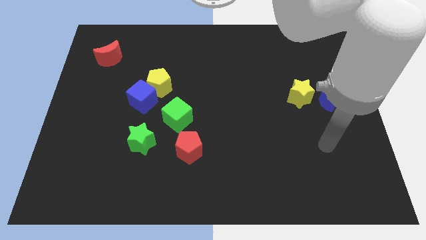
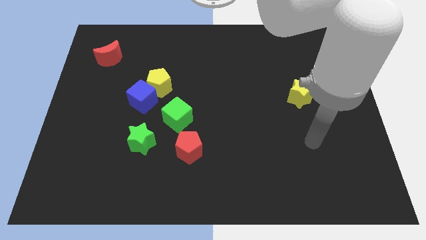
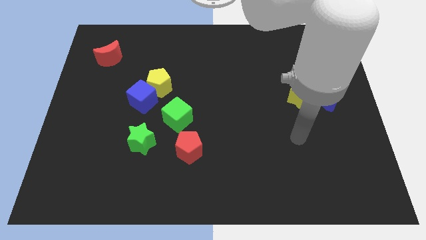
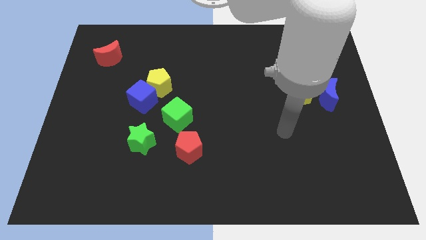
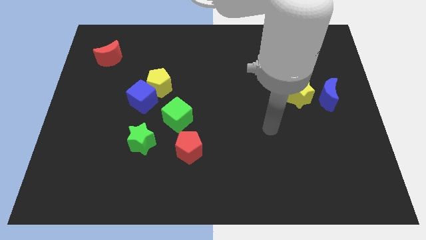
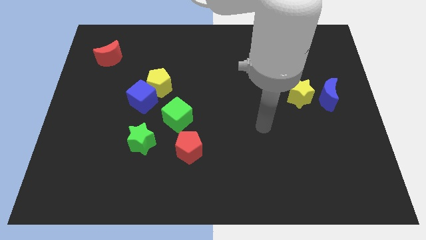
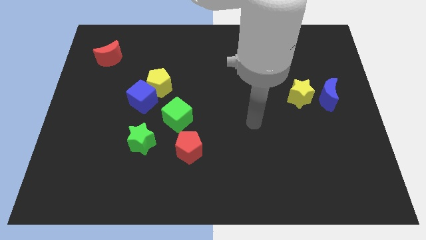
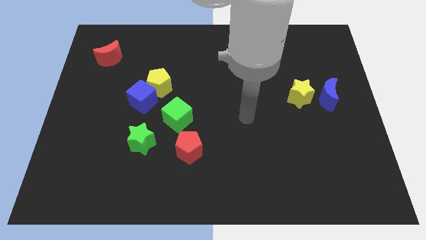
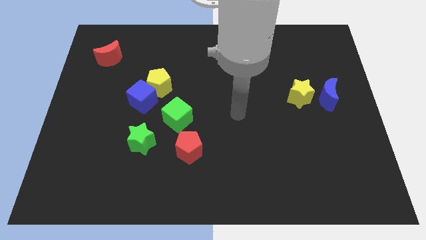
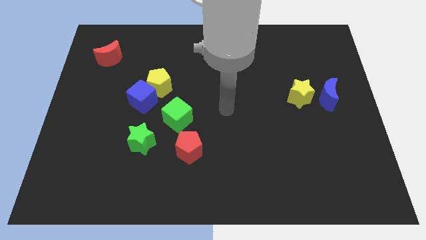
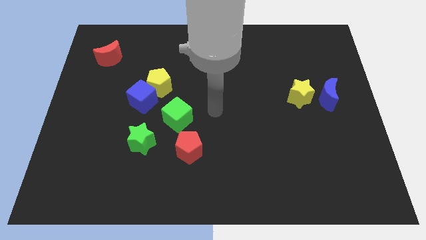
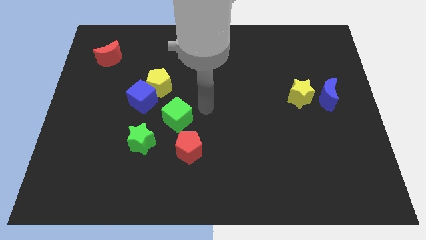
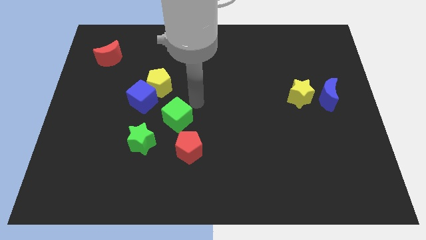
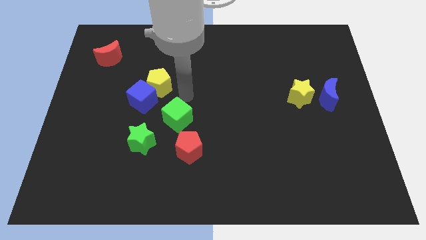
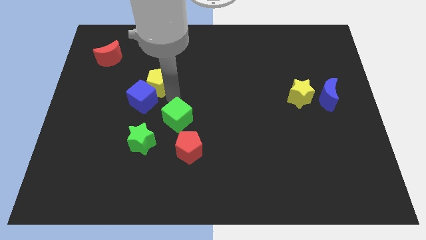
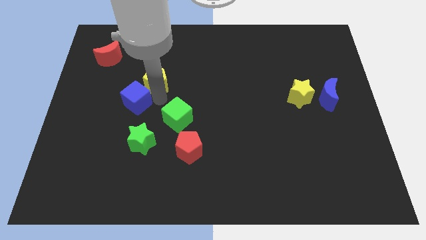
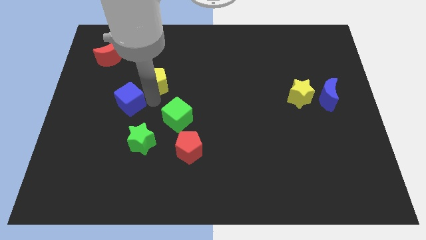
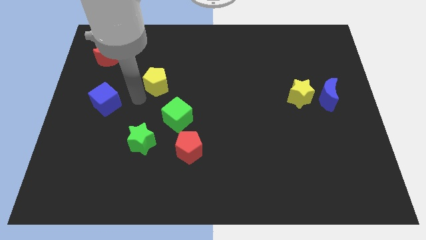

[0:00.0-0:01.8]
separate the yellow pentagon from the blue cube

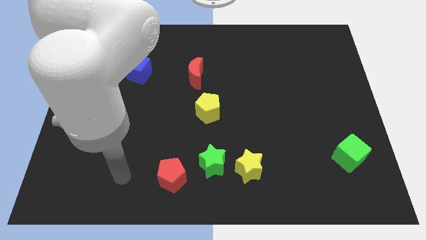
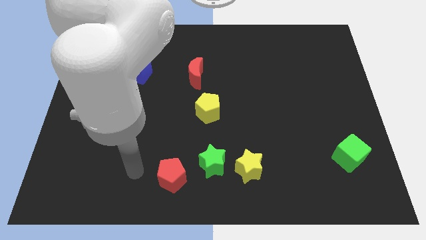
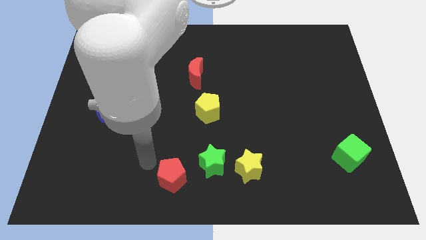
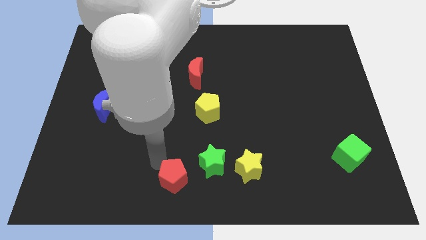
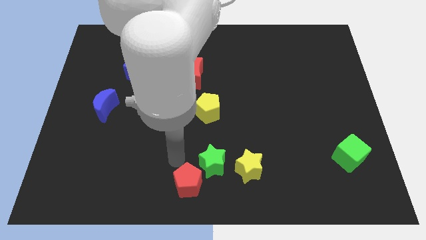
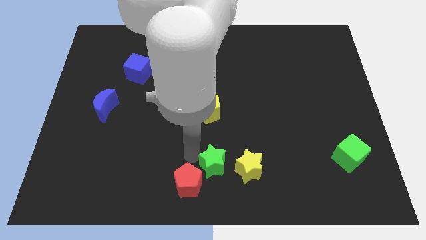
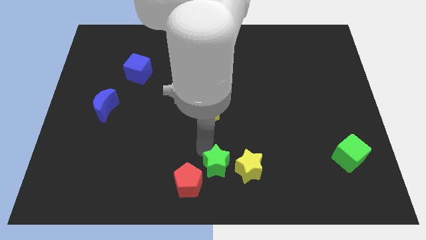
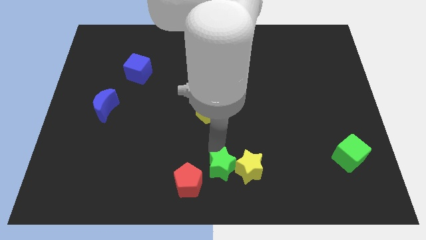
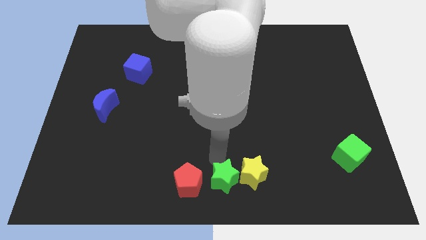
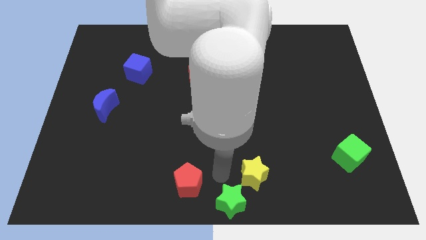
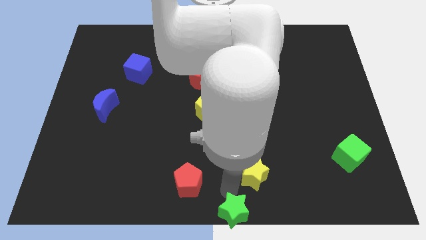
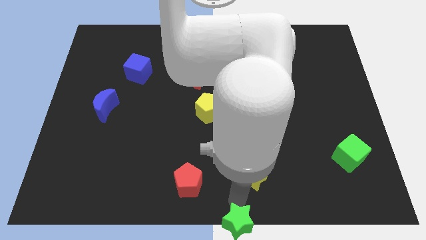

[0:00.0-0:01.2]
pull the yellow star apart from the green star

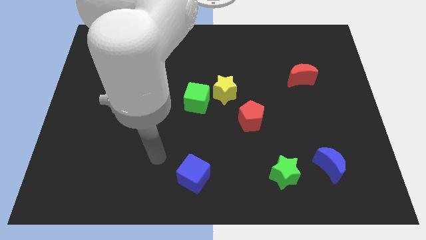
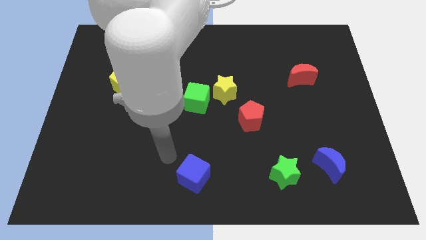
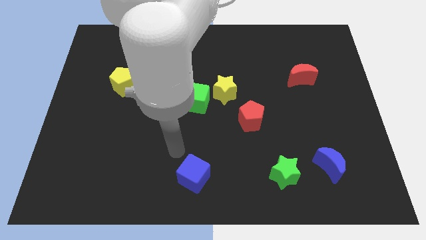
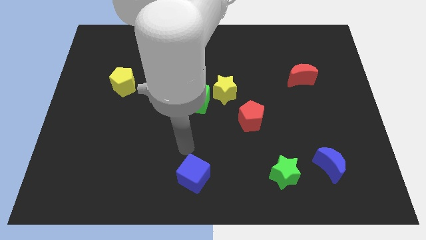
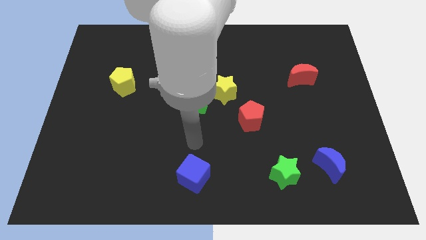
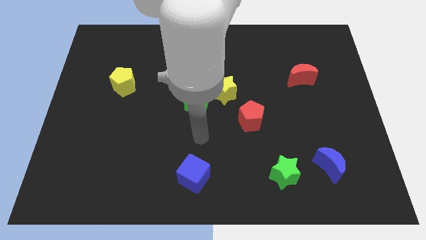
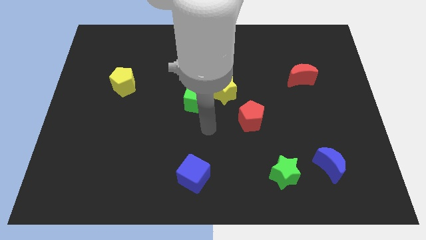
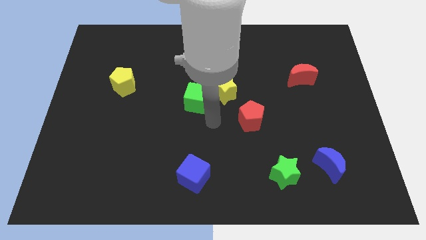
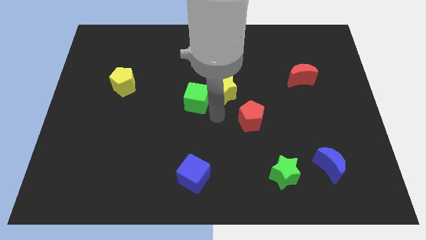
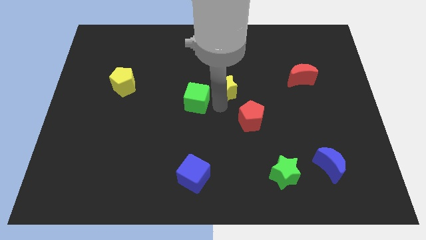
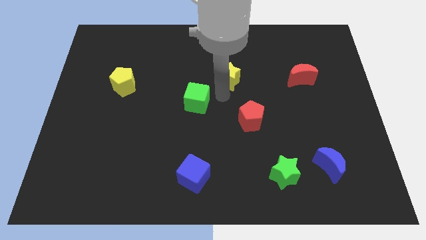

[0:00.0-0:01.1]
pull the green cube apart from the yellow star

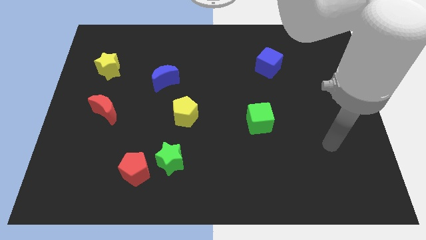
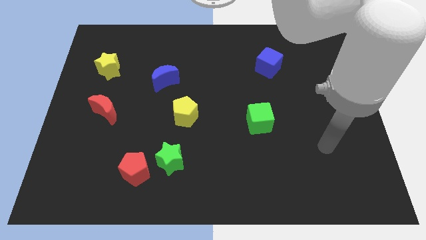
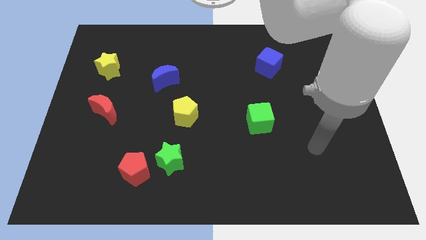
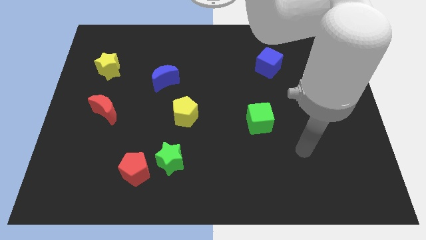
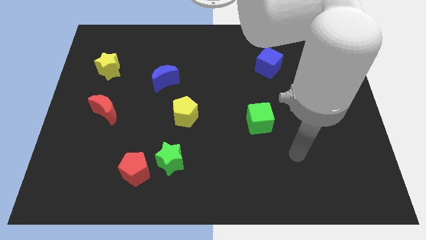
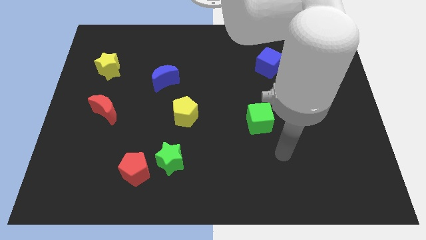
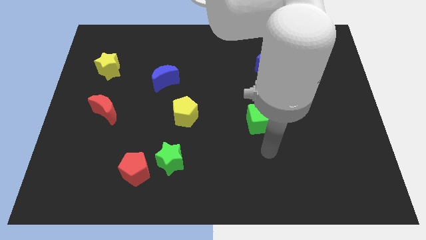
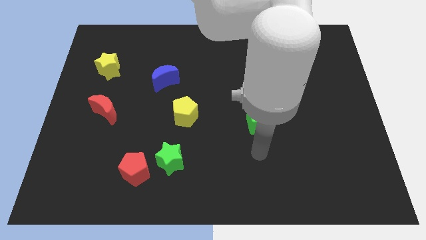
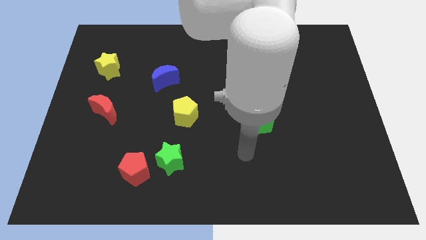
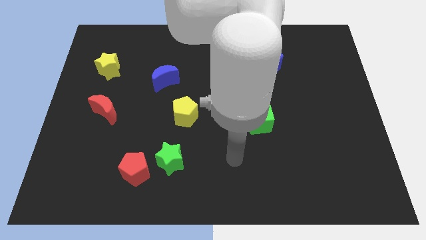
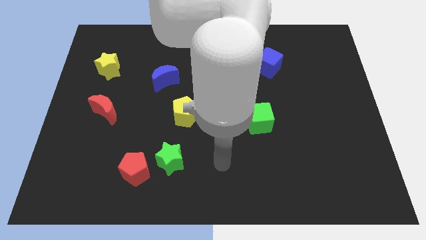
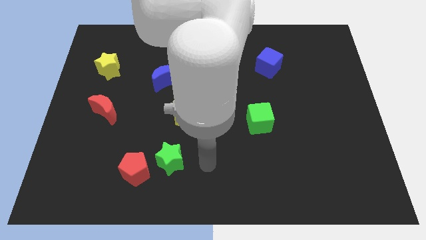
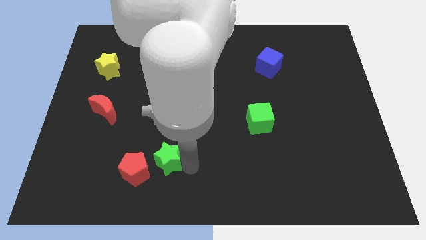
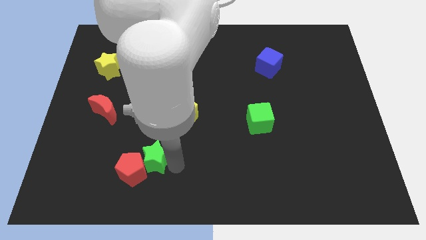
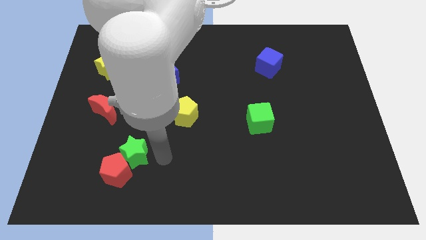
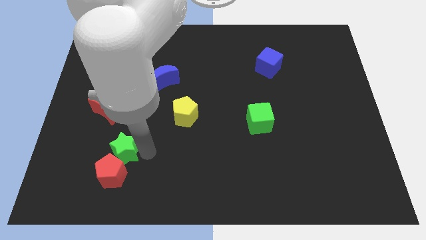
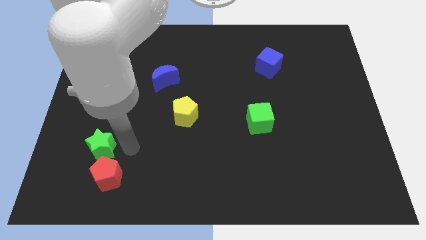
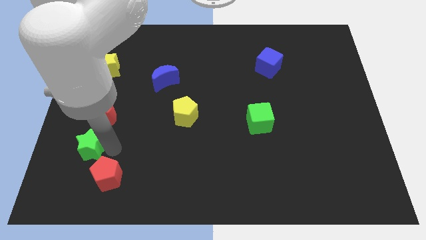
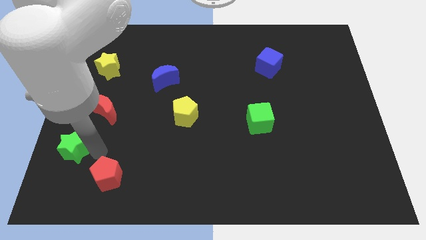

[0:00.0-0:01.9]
separate the red pentagon from the green star

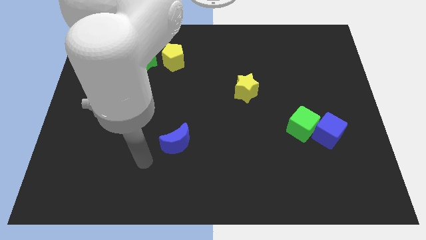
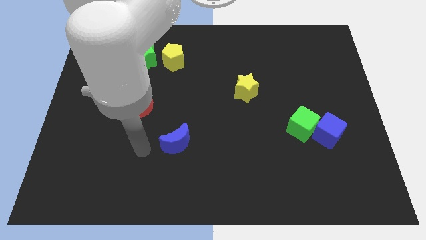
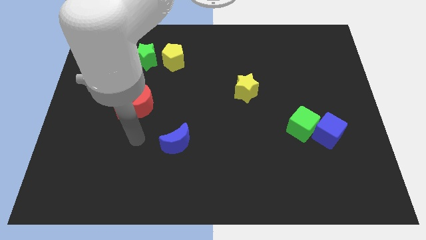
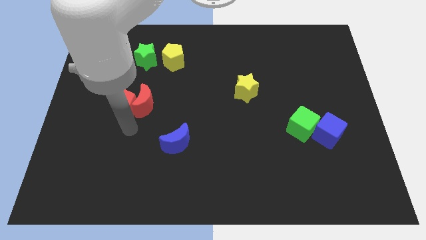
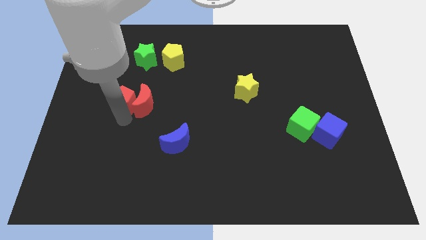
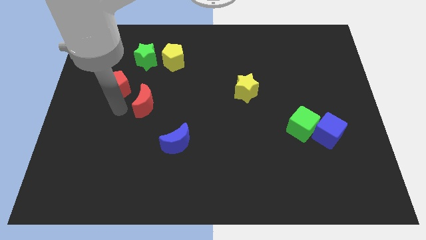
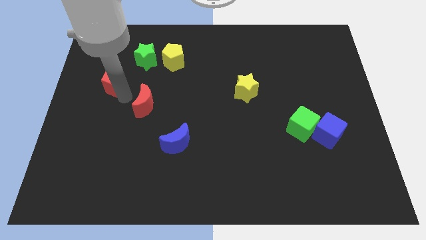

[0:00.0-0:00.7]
move the red moon away from the red pentagon

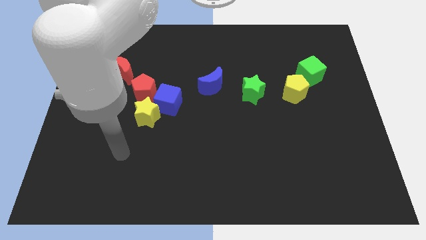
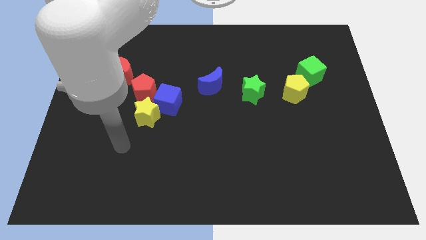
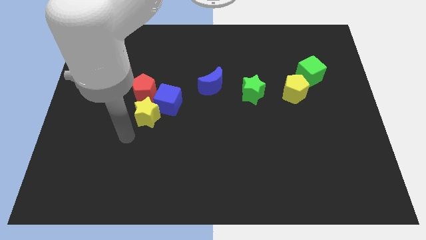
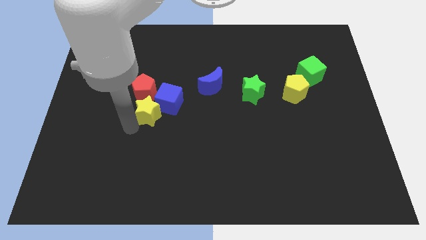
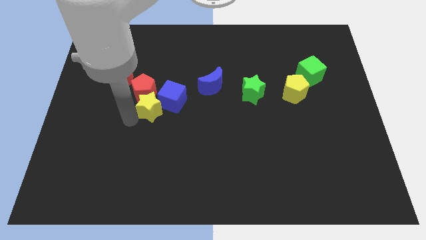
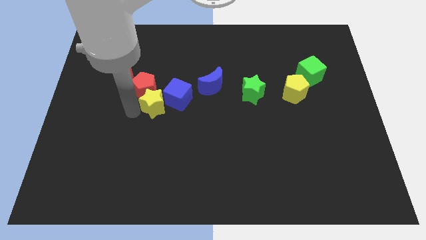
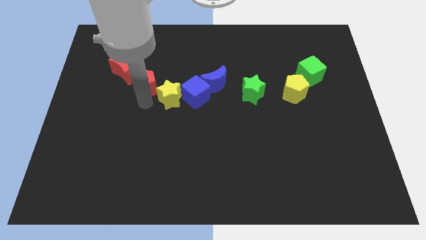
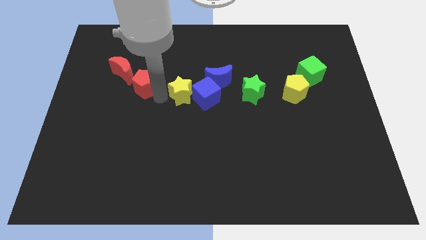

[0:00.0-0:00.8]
move the blue cube away from the yellow star and red pentagon

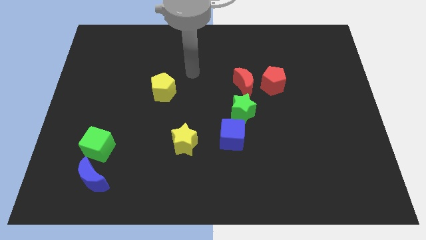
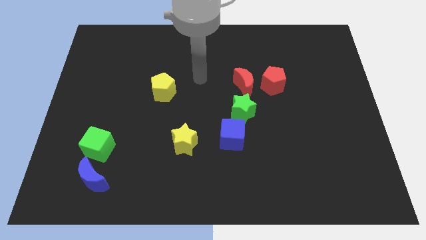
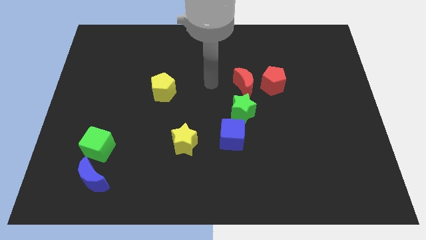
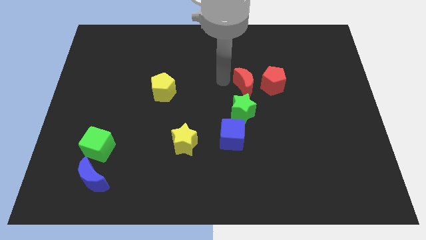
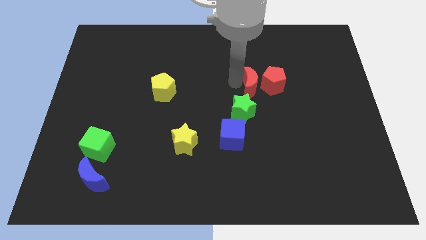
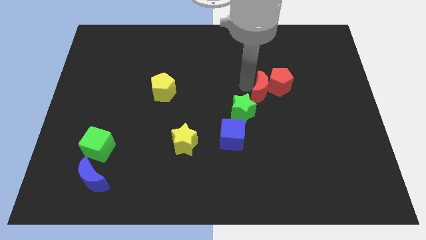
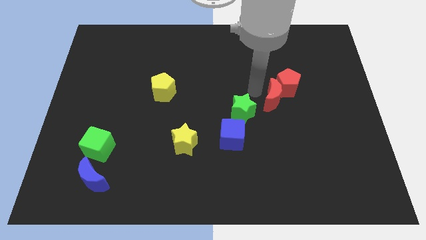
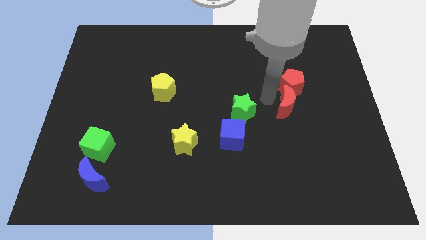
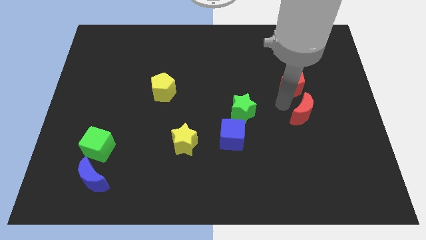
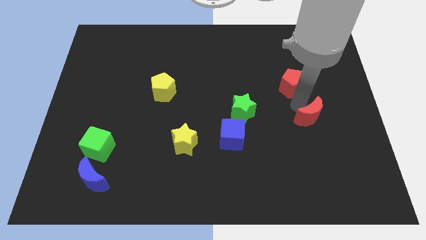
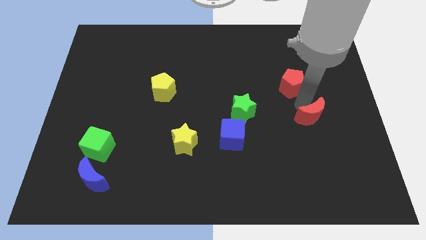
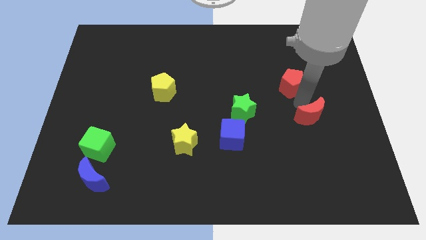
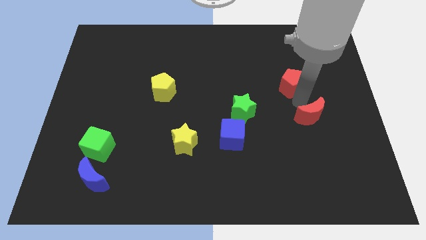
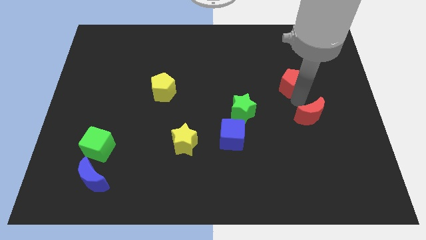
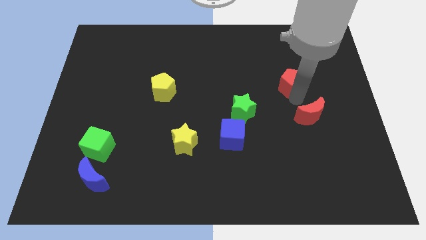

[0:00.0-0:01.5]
pull the red pentagon apart from the red moon

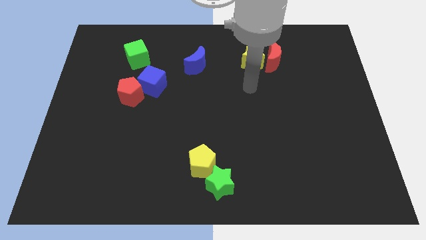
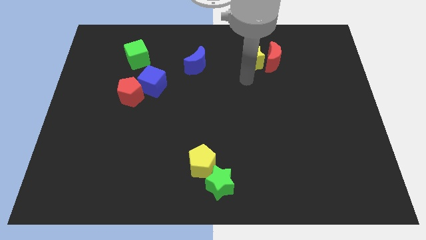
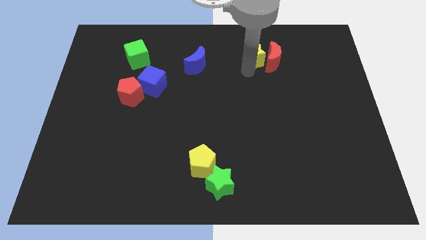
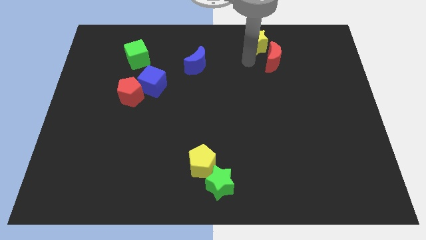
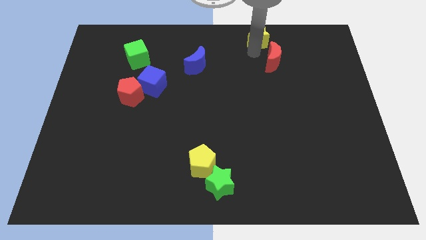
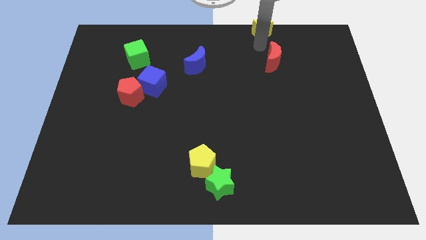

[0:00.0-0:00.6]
separate the red moon from the yellow star
